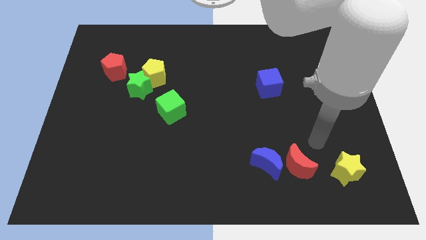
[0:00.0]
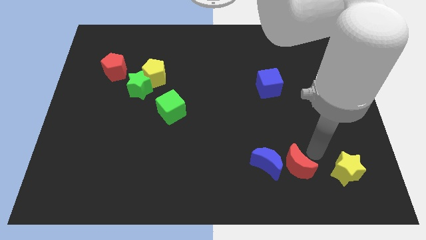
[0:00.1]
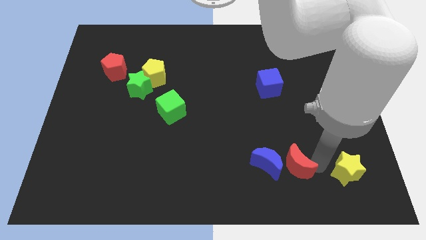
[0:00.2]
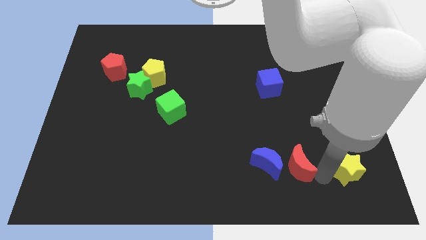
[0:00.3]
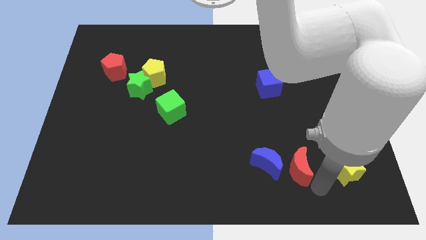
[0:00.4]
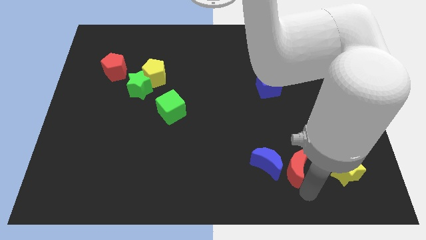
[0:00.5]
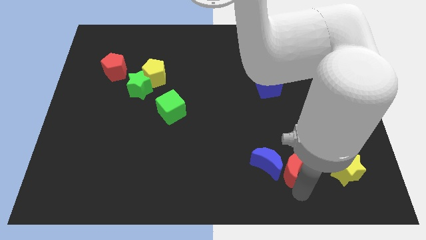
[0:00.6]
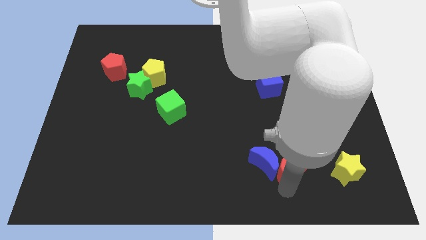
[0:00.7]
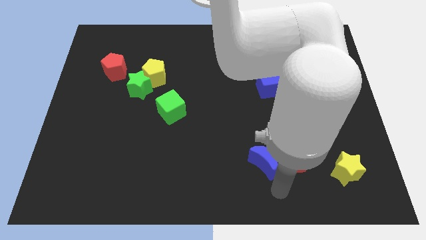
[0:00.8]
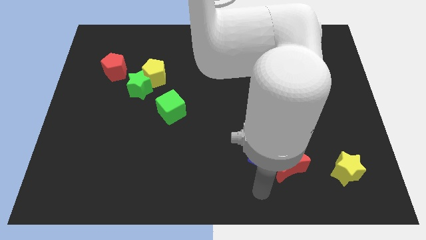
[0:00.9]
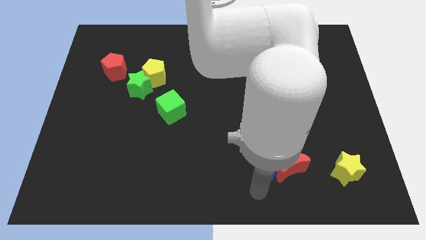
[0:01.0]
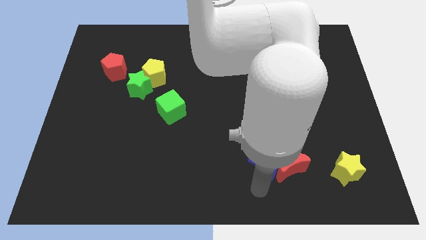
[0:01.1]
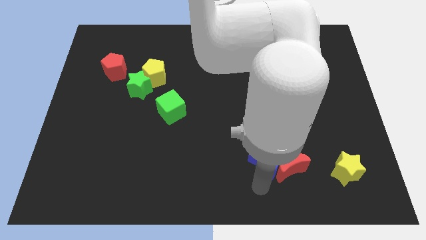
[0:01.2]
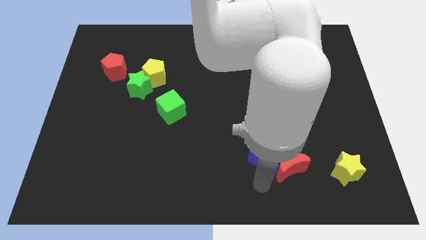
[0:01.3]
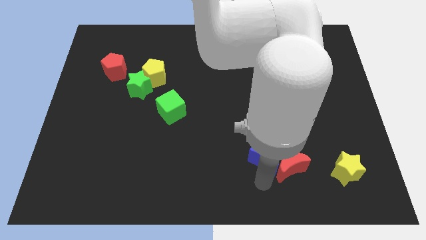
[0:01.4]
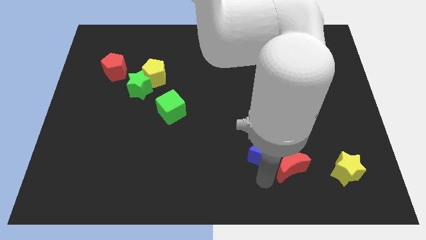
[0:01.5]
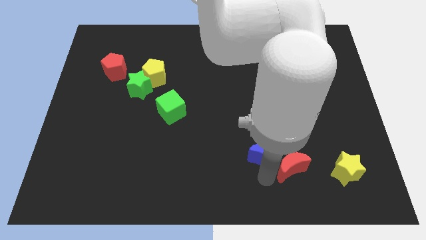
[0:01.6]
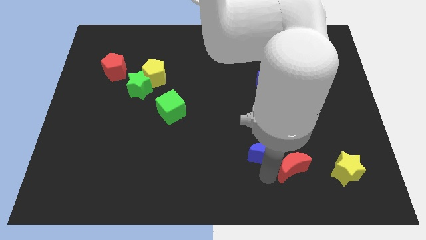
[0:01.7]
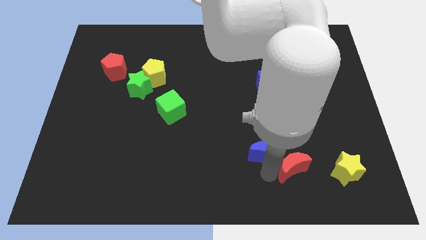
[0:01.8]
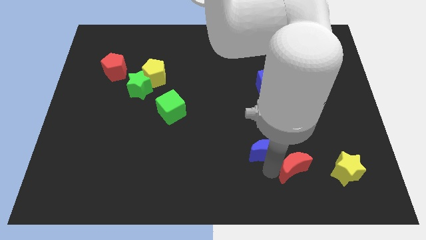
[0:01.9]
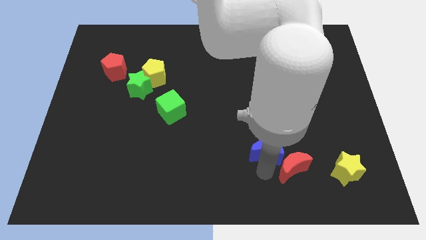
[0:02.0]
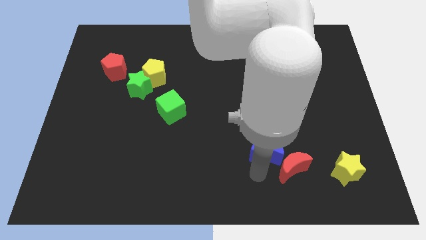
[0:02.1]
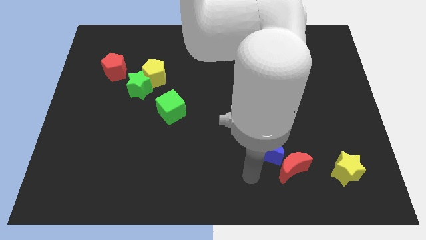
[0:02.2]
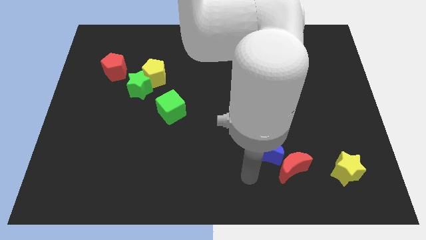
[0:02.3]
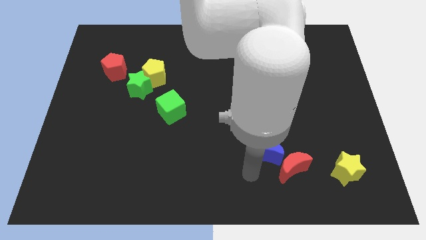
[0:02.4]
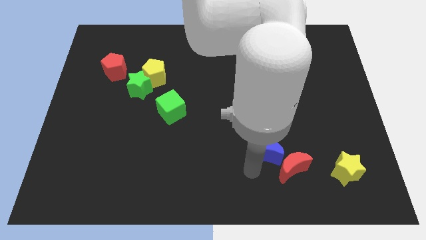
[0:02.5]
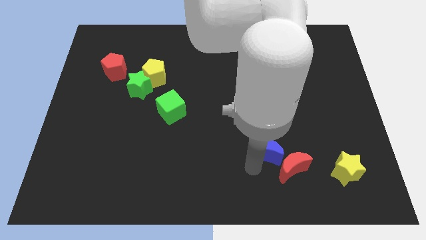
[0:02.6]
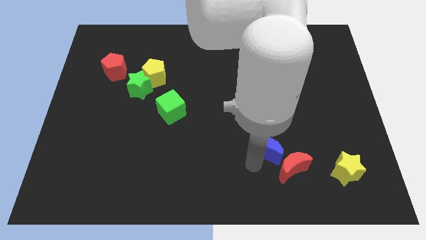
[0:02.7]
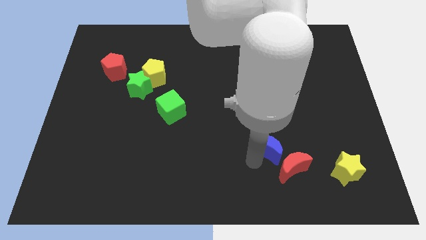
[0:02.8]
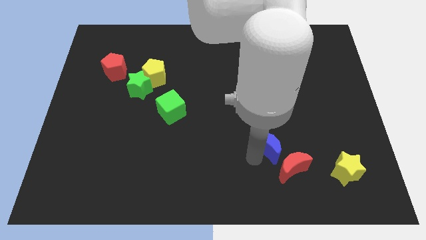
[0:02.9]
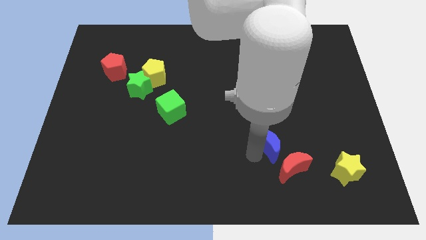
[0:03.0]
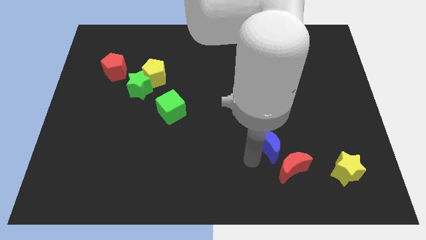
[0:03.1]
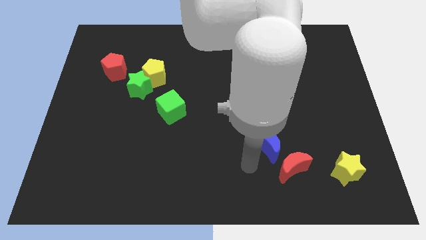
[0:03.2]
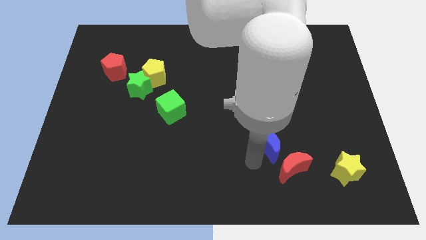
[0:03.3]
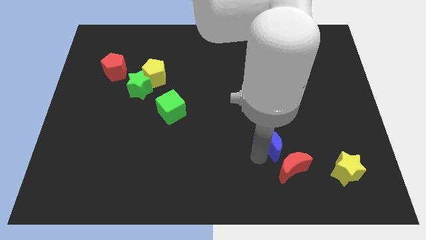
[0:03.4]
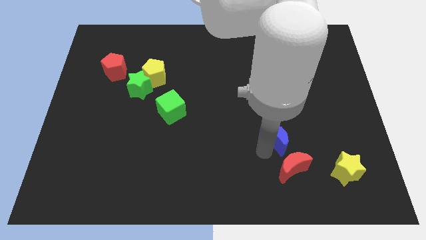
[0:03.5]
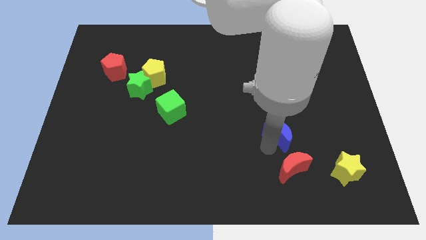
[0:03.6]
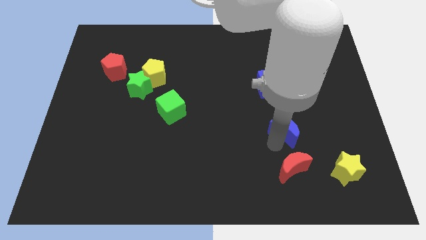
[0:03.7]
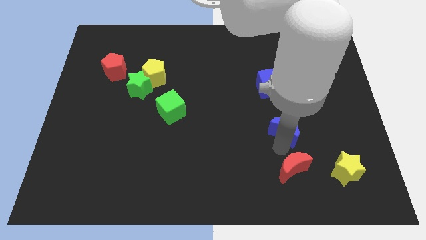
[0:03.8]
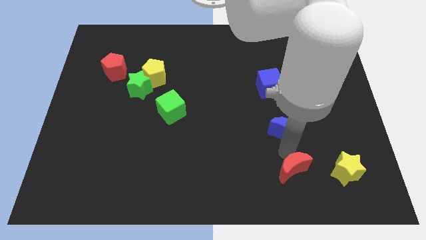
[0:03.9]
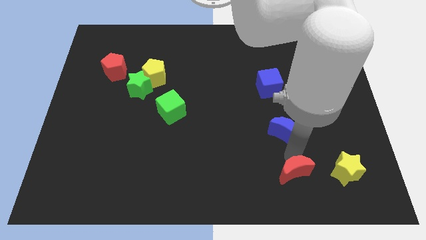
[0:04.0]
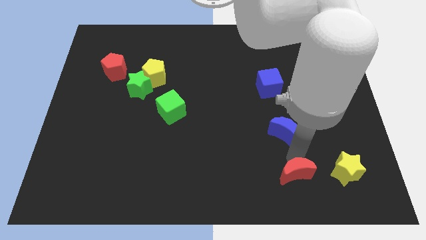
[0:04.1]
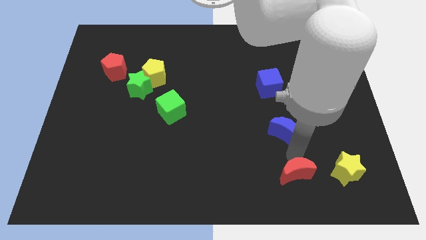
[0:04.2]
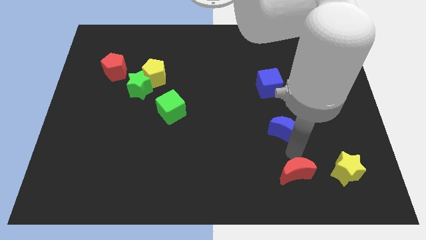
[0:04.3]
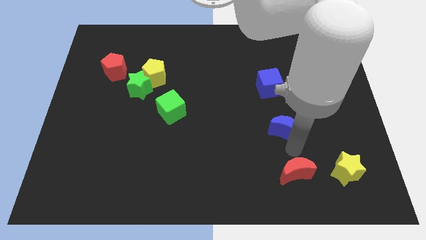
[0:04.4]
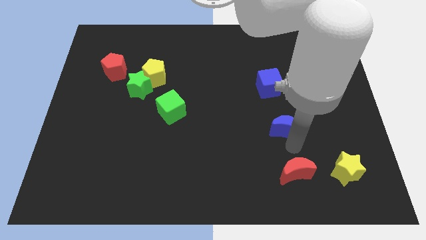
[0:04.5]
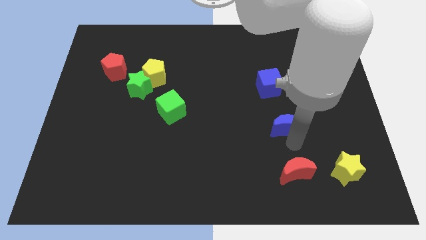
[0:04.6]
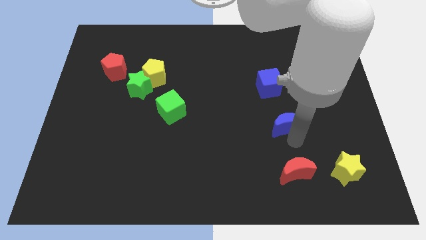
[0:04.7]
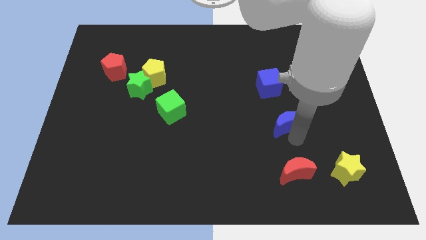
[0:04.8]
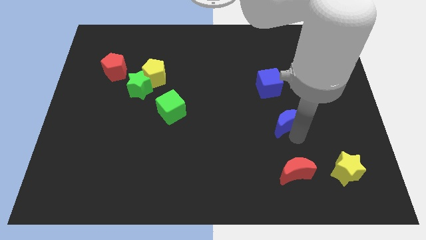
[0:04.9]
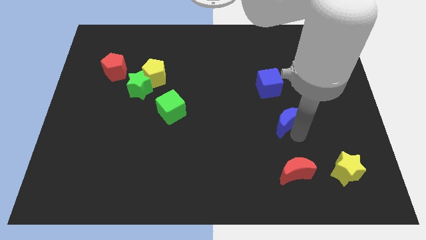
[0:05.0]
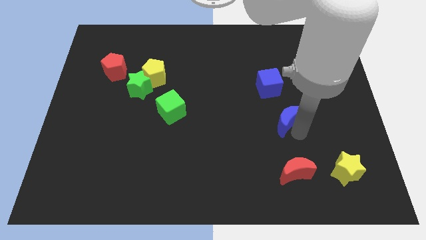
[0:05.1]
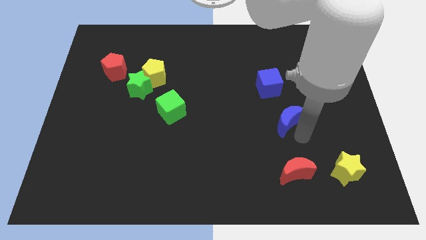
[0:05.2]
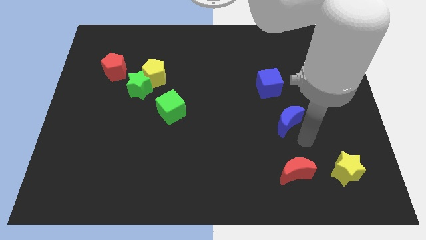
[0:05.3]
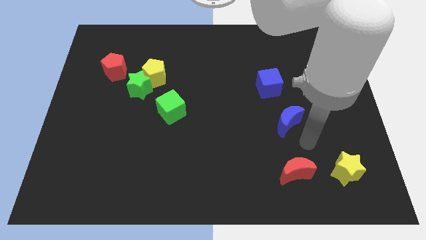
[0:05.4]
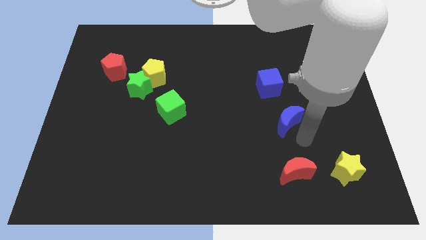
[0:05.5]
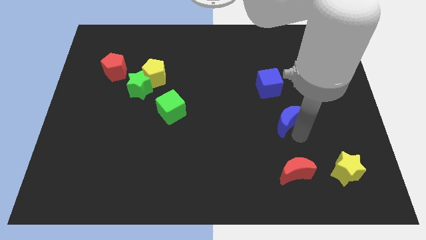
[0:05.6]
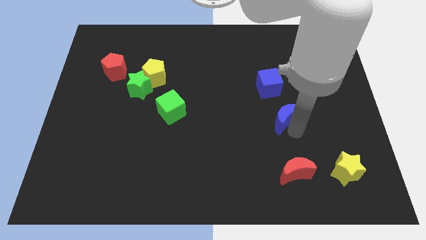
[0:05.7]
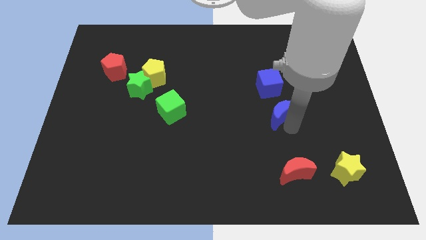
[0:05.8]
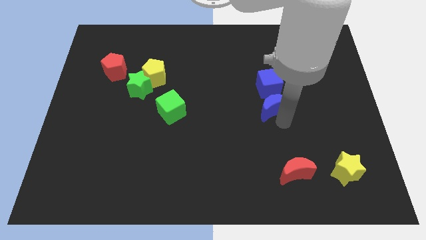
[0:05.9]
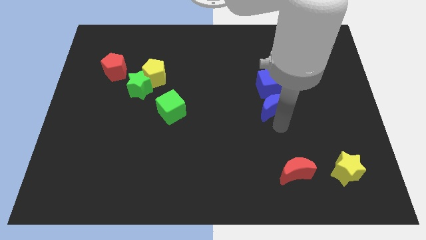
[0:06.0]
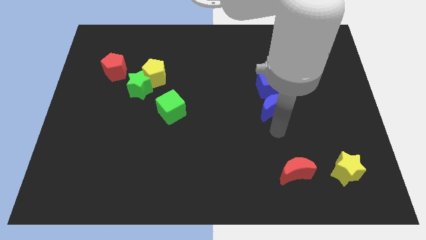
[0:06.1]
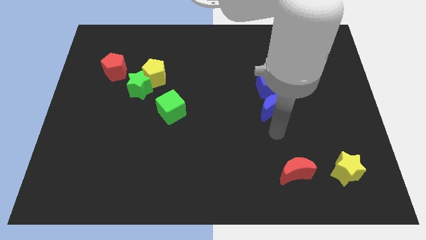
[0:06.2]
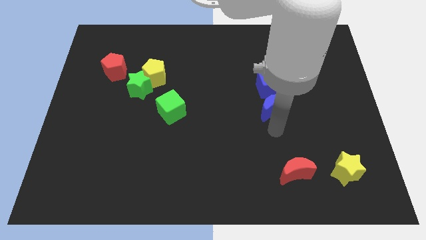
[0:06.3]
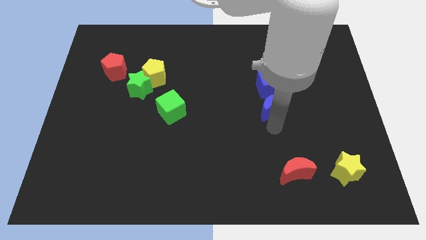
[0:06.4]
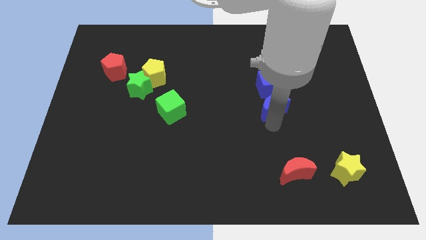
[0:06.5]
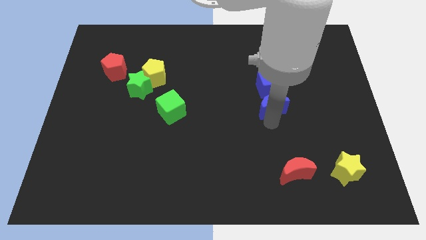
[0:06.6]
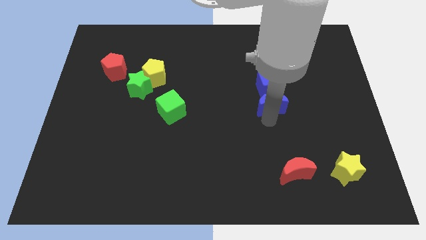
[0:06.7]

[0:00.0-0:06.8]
slide the blue moon towards the blue cube

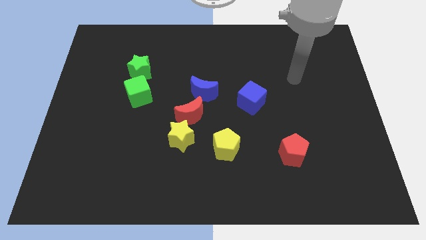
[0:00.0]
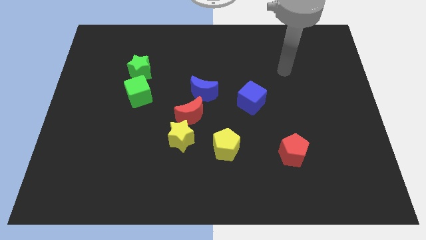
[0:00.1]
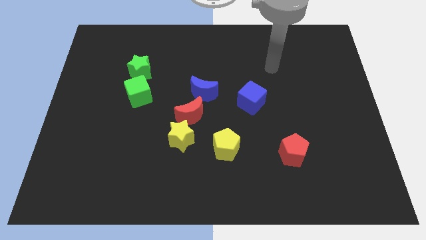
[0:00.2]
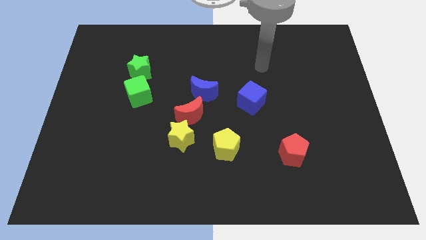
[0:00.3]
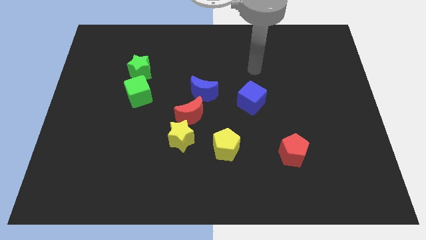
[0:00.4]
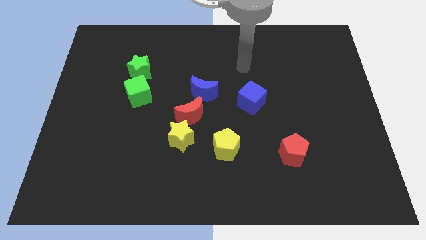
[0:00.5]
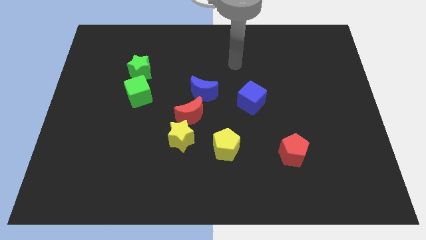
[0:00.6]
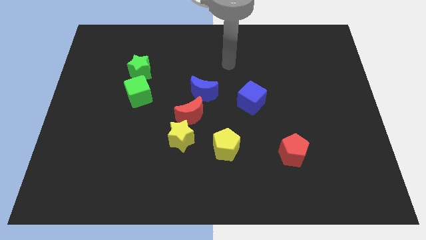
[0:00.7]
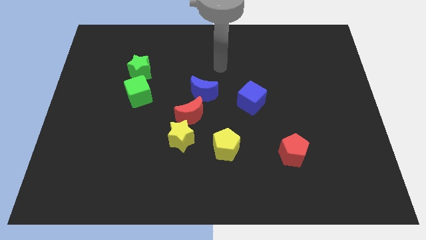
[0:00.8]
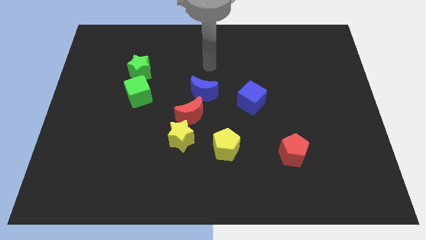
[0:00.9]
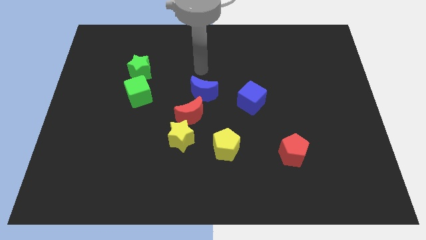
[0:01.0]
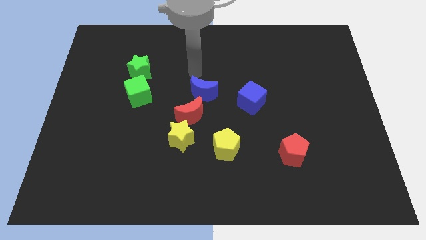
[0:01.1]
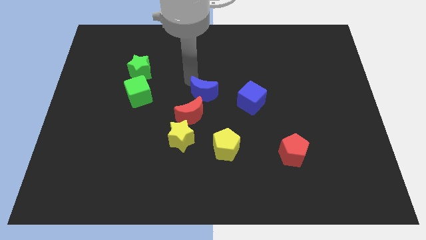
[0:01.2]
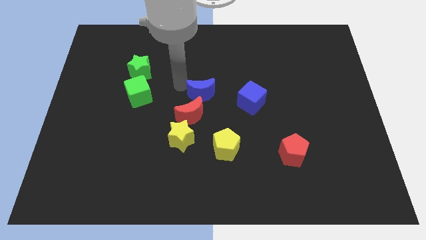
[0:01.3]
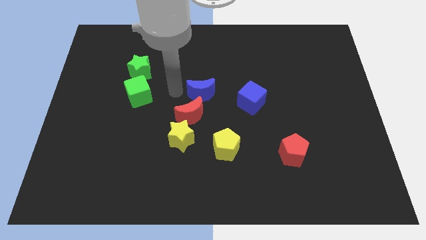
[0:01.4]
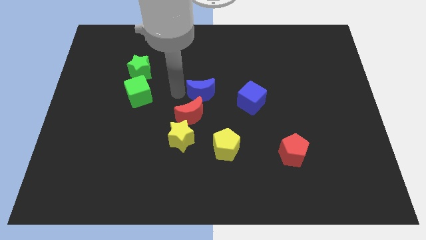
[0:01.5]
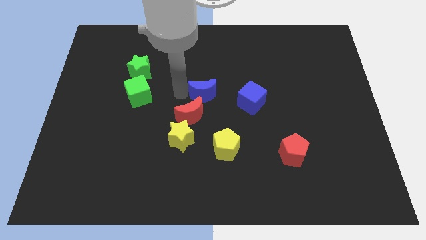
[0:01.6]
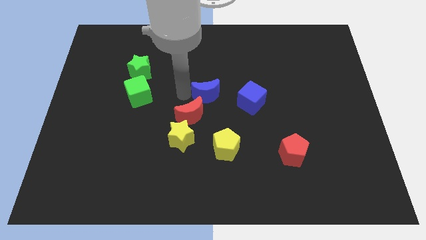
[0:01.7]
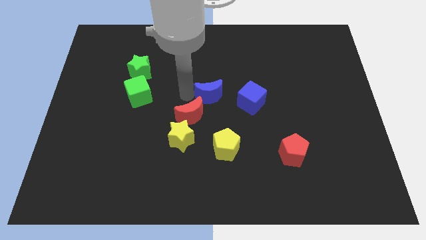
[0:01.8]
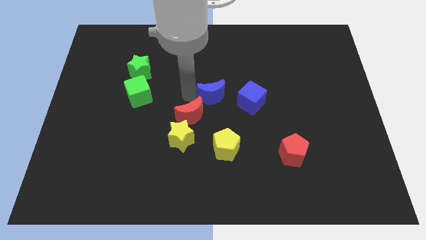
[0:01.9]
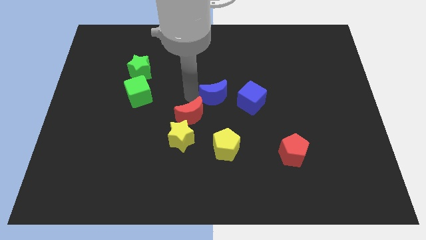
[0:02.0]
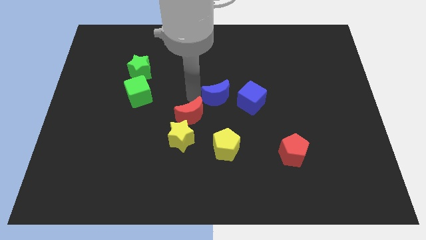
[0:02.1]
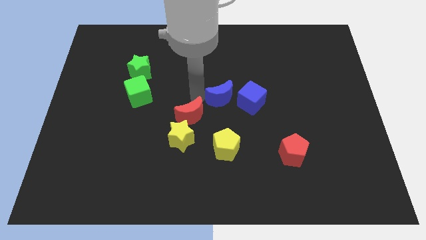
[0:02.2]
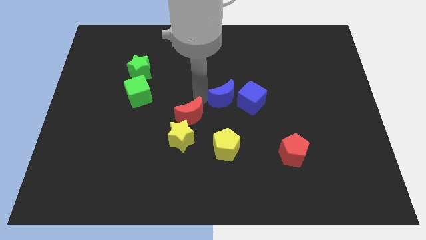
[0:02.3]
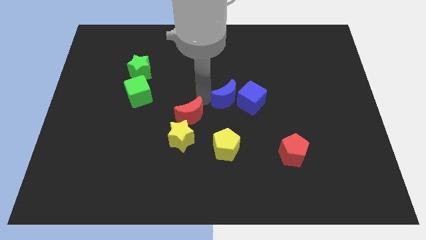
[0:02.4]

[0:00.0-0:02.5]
put the blue moon towards the blue cube
